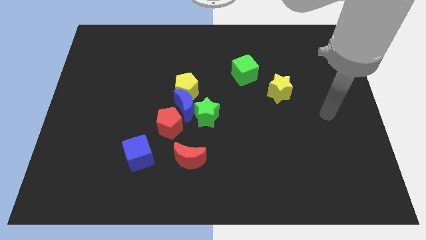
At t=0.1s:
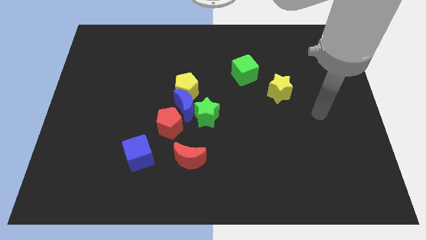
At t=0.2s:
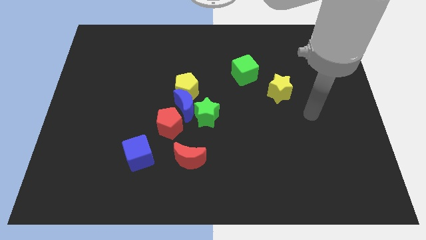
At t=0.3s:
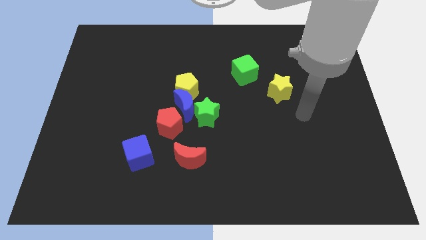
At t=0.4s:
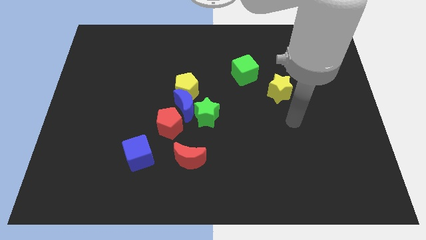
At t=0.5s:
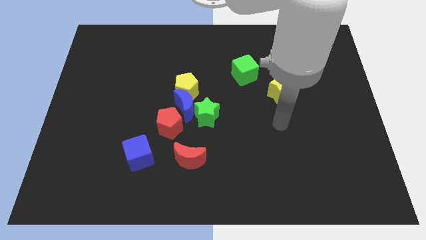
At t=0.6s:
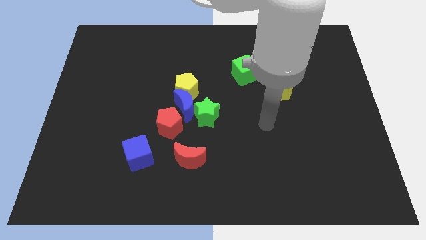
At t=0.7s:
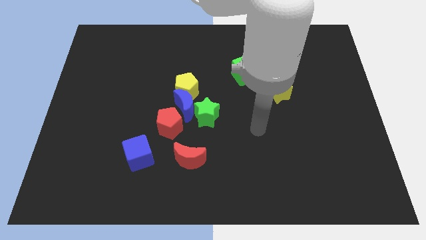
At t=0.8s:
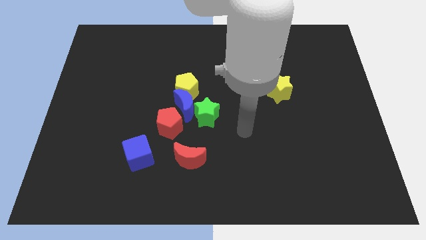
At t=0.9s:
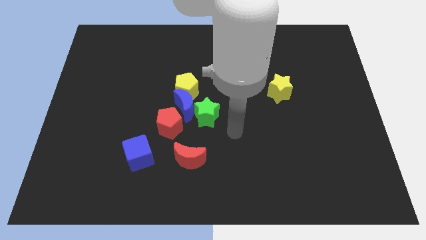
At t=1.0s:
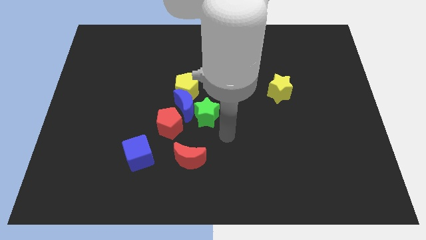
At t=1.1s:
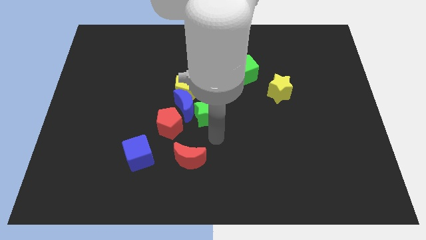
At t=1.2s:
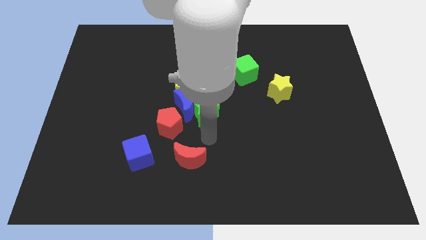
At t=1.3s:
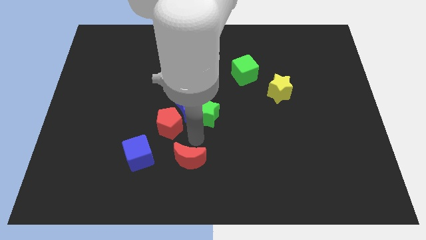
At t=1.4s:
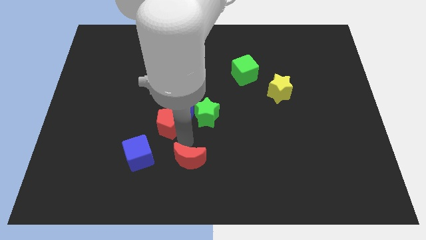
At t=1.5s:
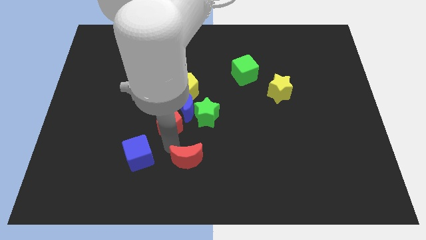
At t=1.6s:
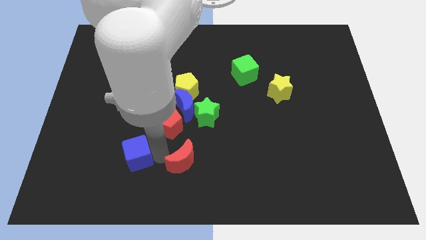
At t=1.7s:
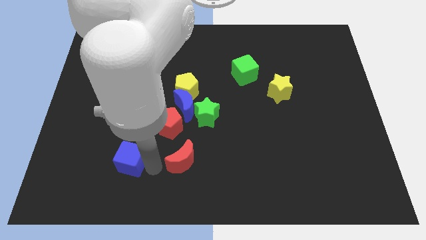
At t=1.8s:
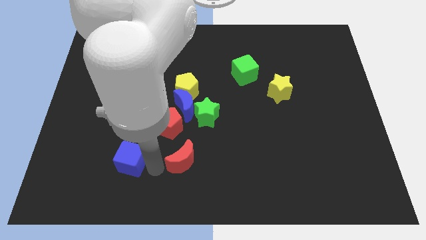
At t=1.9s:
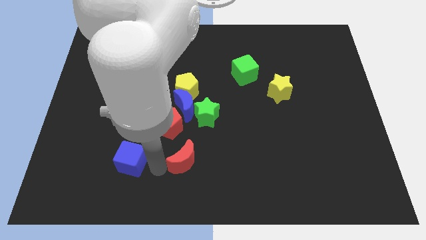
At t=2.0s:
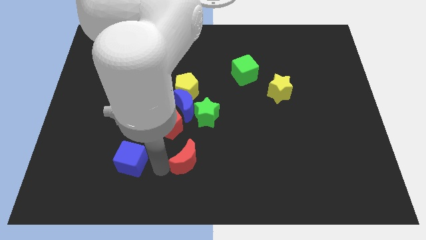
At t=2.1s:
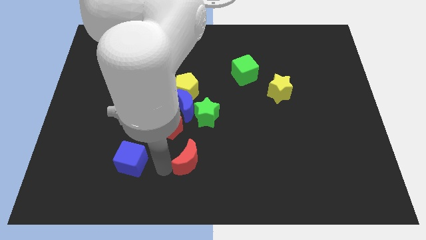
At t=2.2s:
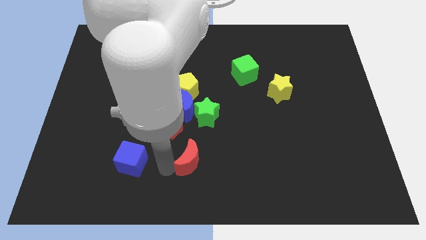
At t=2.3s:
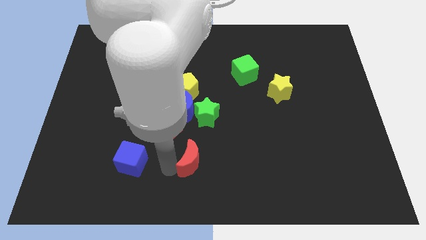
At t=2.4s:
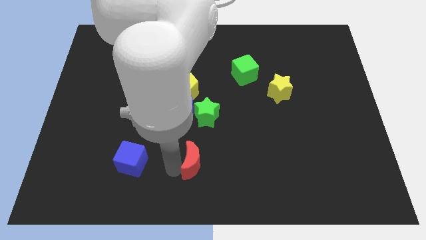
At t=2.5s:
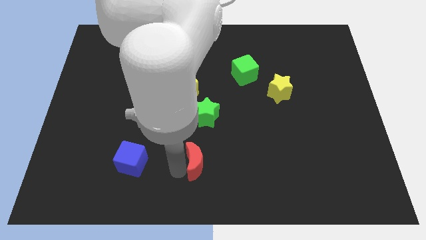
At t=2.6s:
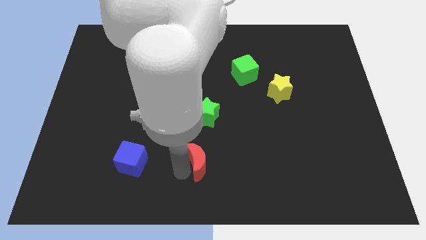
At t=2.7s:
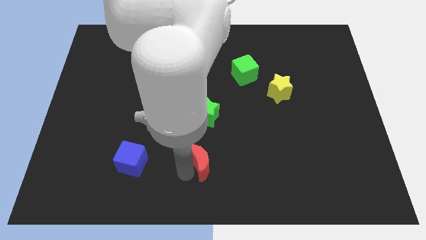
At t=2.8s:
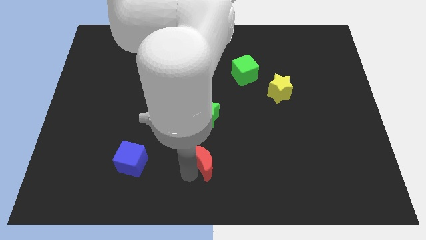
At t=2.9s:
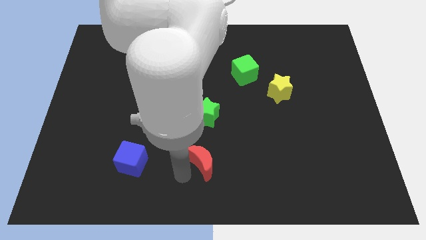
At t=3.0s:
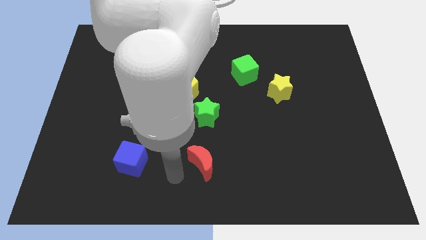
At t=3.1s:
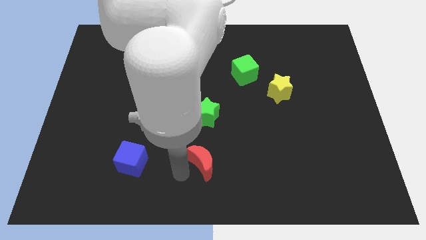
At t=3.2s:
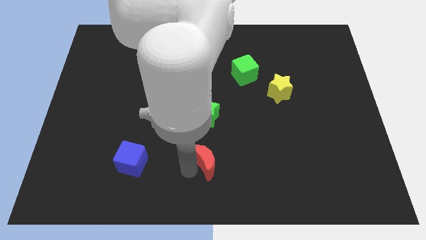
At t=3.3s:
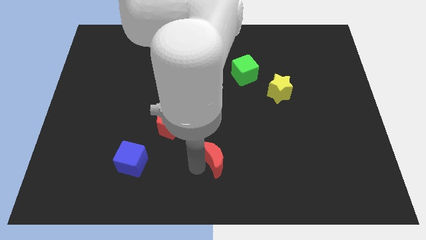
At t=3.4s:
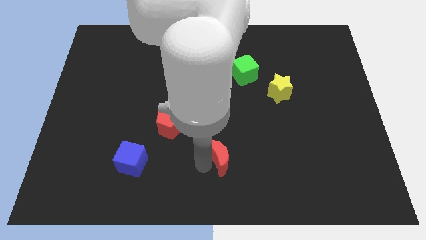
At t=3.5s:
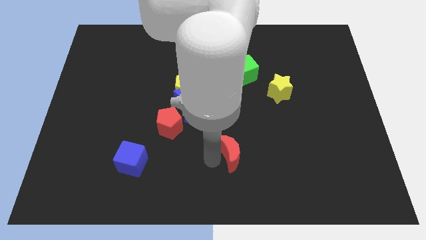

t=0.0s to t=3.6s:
push the red moon a little to the right

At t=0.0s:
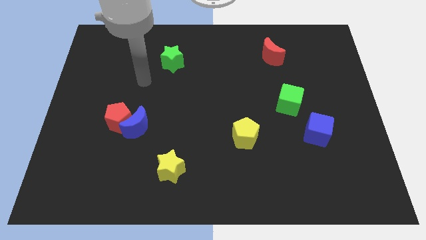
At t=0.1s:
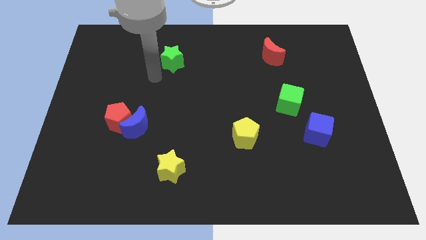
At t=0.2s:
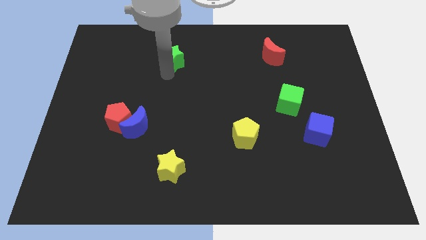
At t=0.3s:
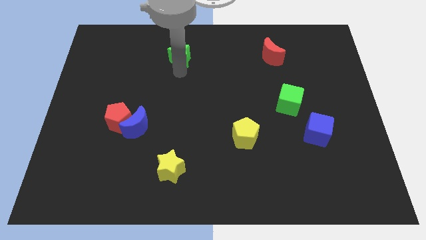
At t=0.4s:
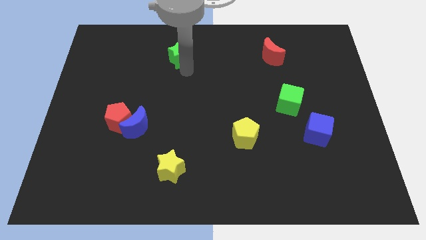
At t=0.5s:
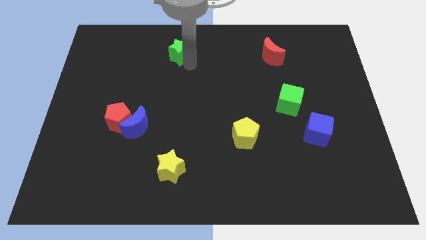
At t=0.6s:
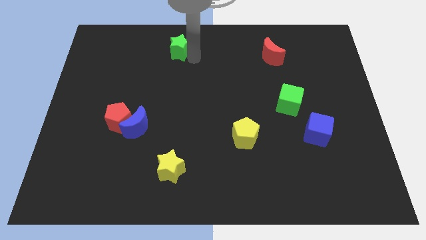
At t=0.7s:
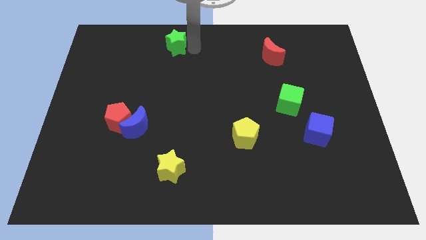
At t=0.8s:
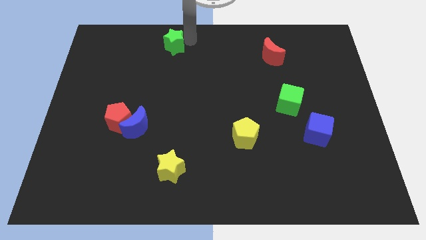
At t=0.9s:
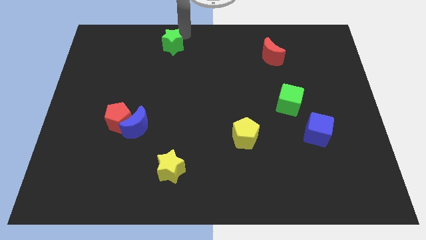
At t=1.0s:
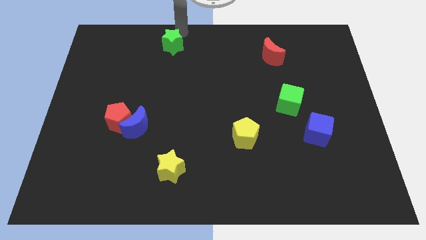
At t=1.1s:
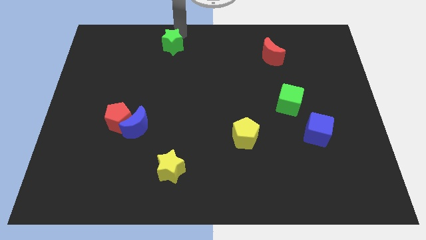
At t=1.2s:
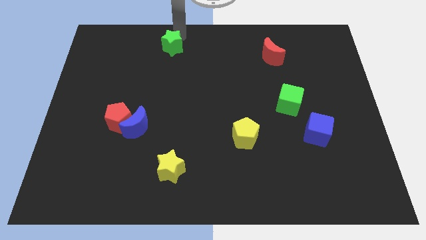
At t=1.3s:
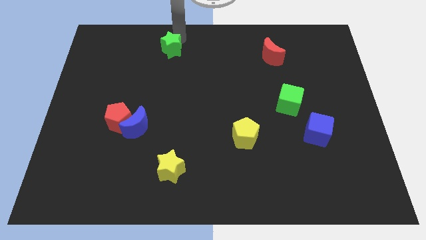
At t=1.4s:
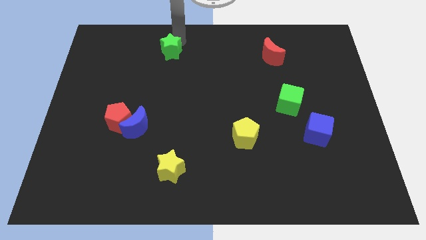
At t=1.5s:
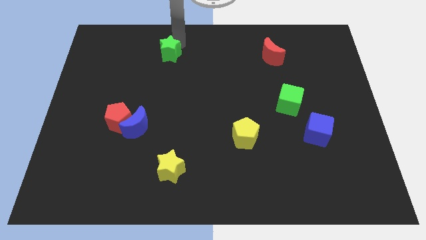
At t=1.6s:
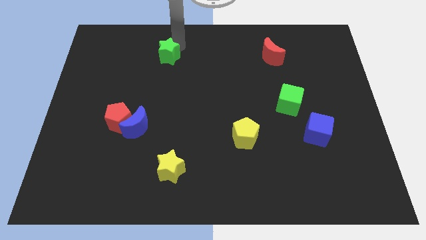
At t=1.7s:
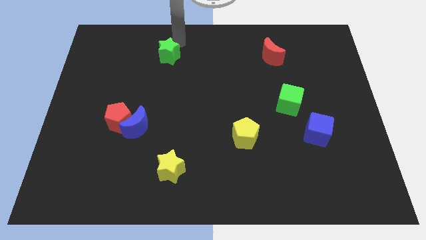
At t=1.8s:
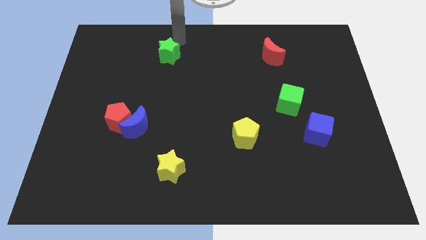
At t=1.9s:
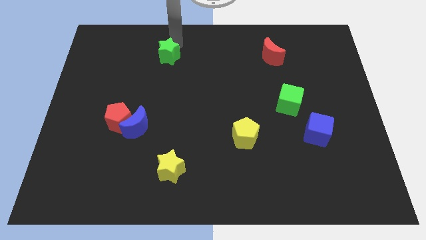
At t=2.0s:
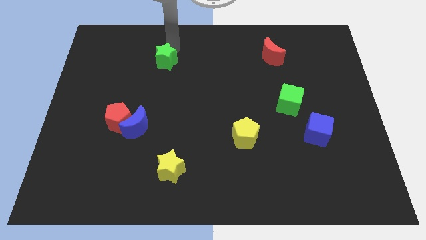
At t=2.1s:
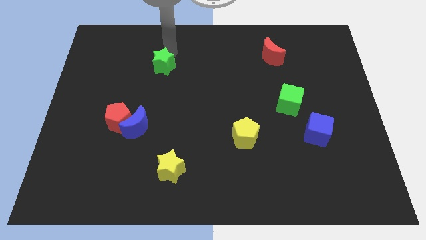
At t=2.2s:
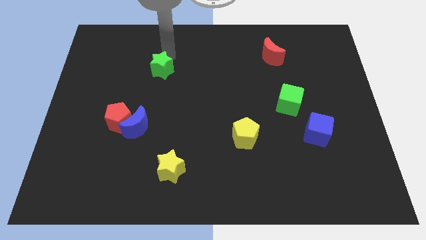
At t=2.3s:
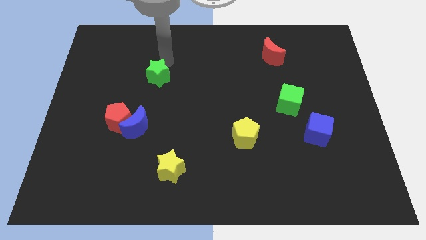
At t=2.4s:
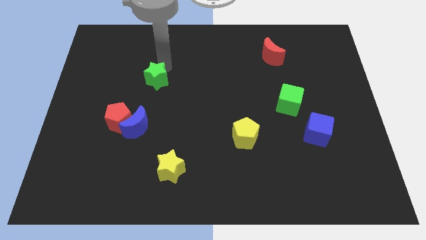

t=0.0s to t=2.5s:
move the green star a little diagonally downwards and to the left

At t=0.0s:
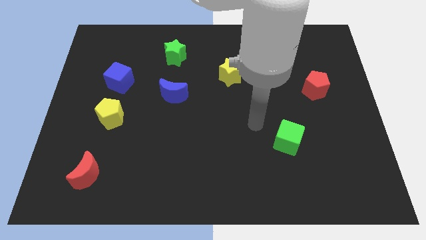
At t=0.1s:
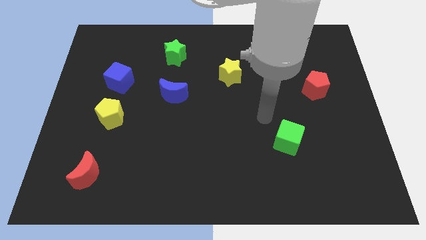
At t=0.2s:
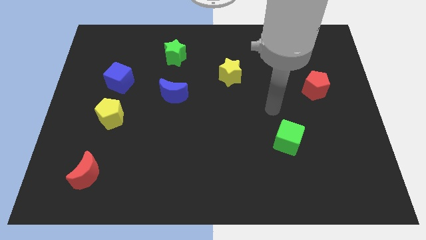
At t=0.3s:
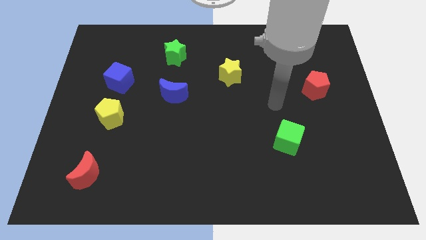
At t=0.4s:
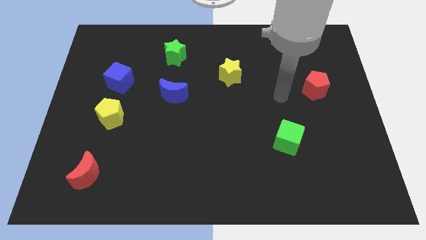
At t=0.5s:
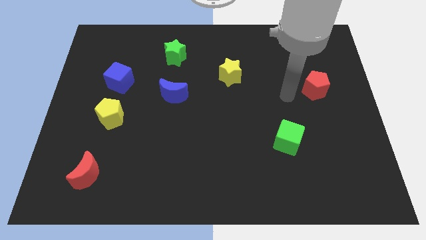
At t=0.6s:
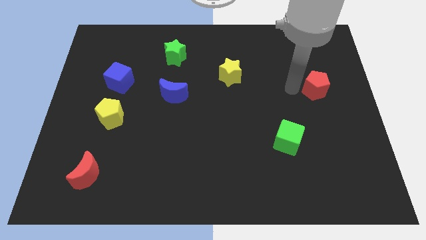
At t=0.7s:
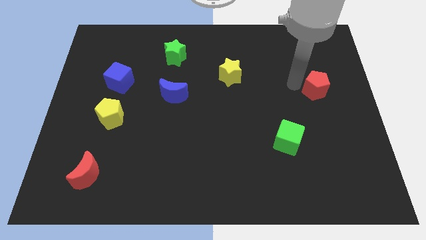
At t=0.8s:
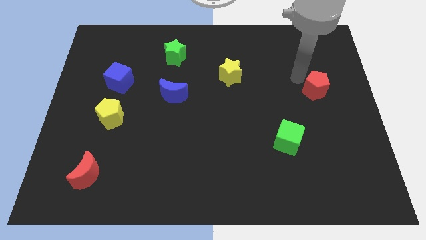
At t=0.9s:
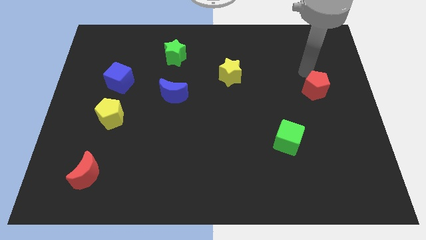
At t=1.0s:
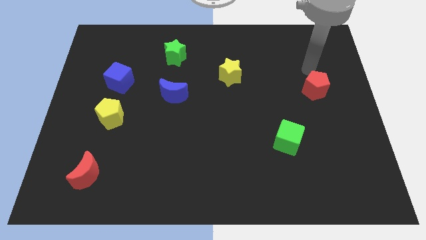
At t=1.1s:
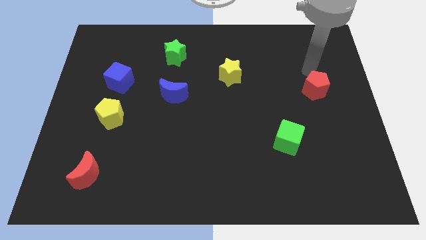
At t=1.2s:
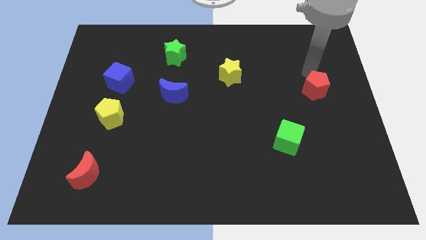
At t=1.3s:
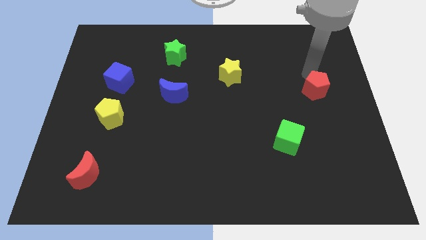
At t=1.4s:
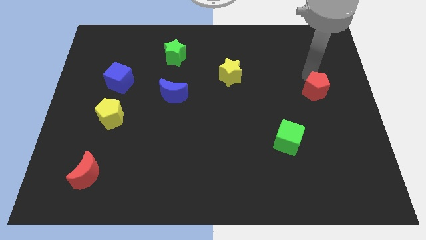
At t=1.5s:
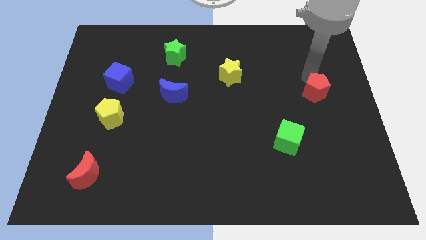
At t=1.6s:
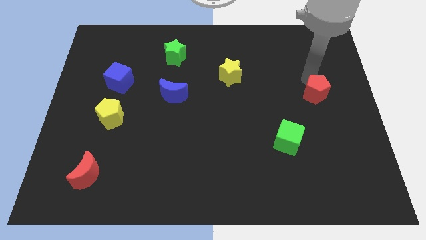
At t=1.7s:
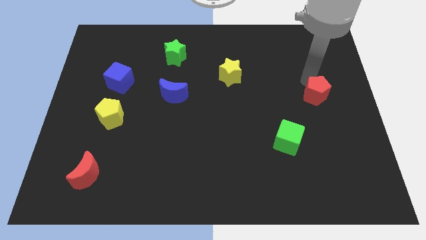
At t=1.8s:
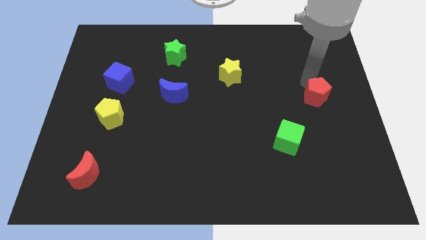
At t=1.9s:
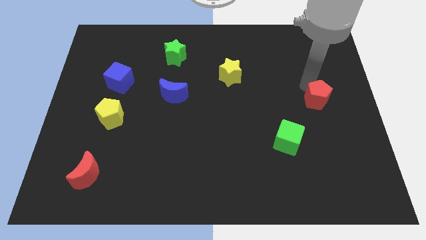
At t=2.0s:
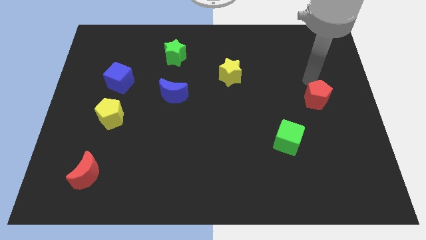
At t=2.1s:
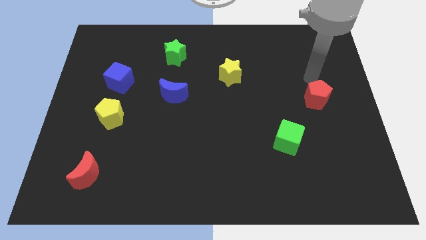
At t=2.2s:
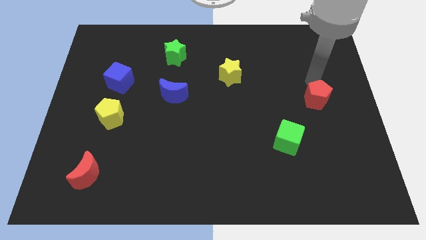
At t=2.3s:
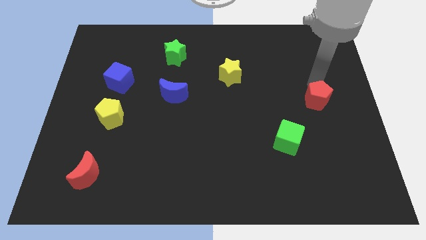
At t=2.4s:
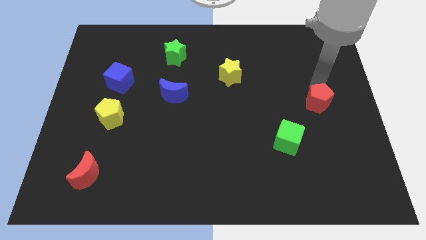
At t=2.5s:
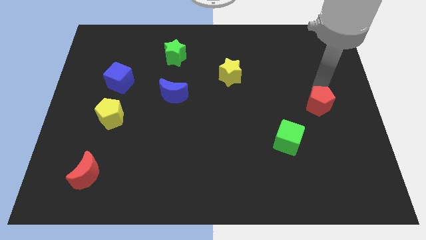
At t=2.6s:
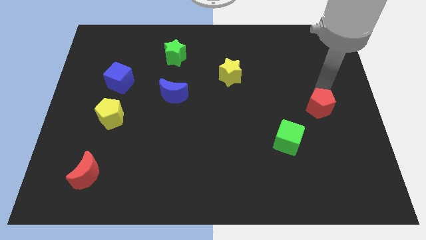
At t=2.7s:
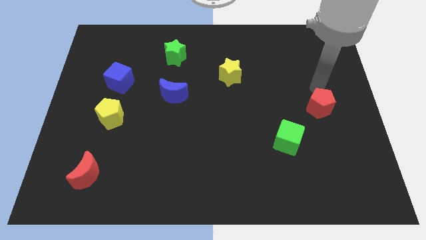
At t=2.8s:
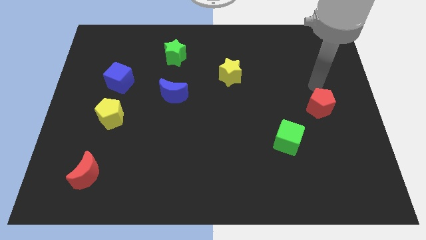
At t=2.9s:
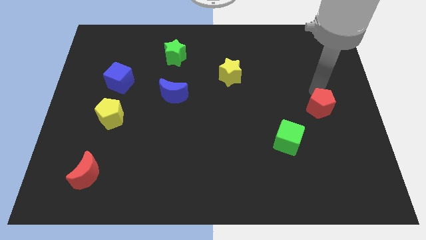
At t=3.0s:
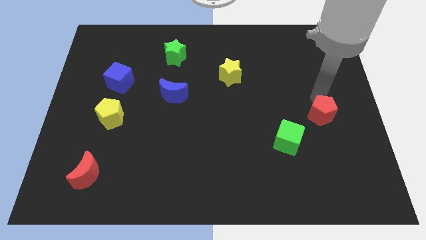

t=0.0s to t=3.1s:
push the red pentagon somewhat down
